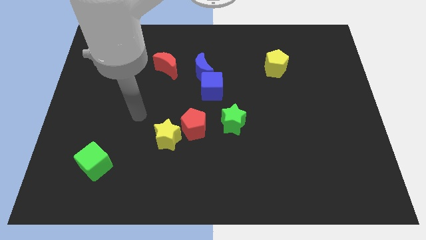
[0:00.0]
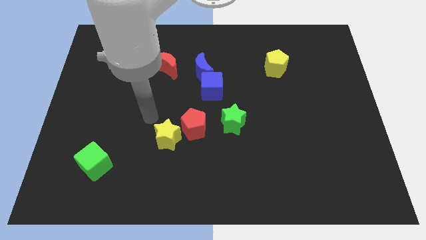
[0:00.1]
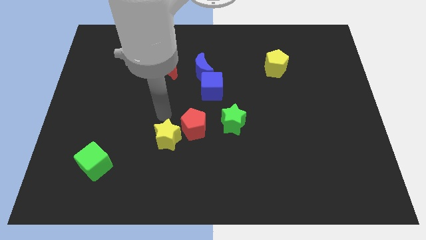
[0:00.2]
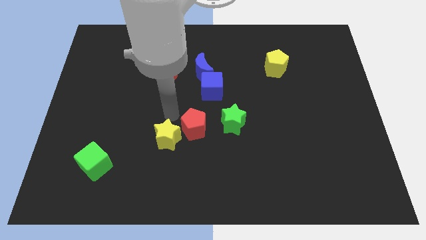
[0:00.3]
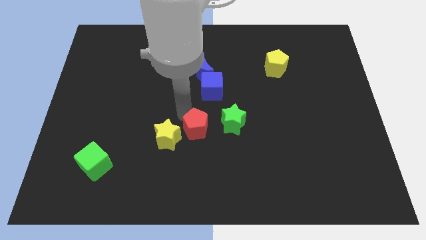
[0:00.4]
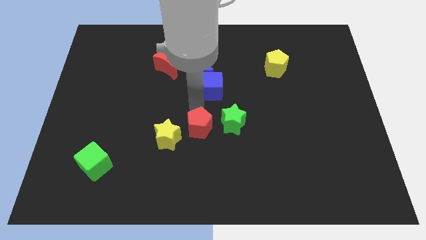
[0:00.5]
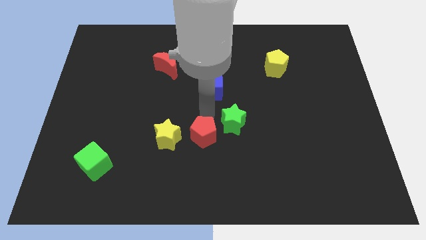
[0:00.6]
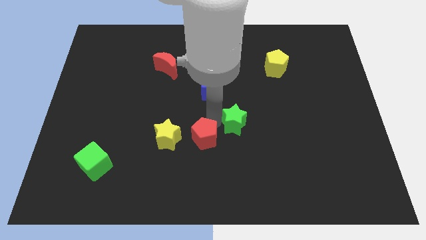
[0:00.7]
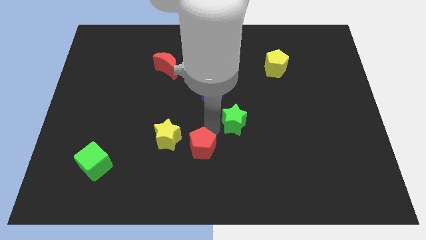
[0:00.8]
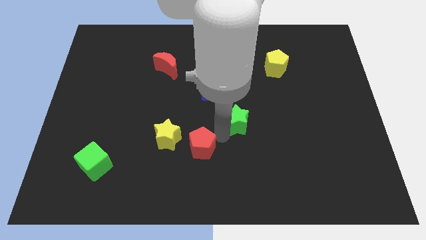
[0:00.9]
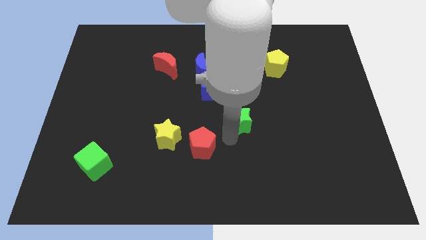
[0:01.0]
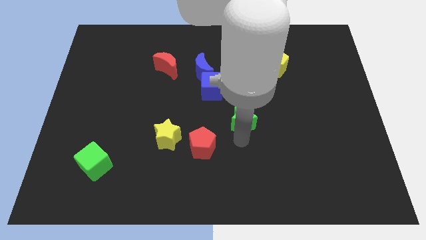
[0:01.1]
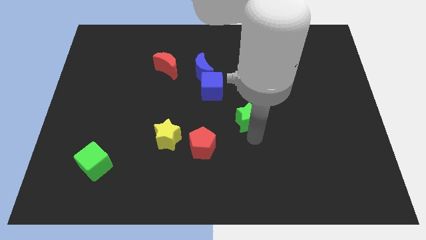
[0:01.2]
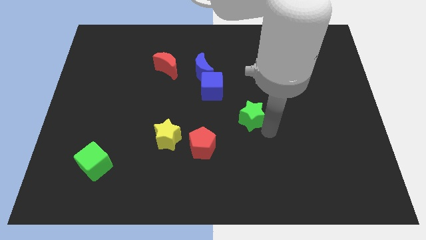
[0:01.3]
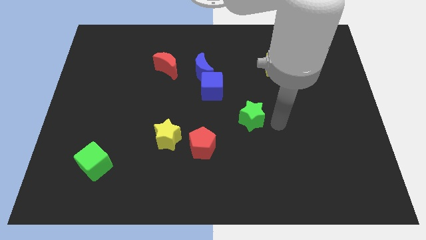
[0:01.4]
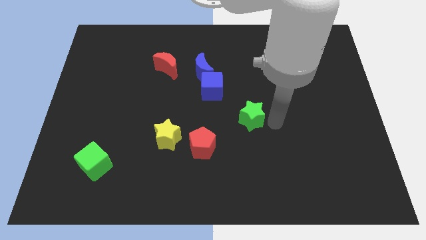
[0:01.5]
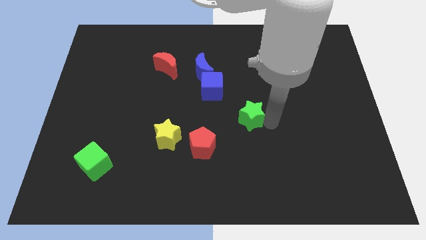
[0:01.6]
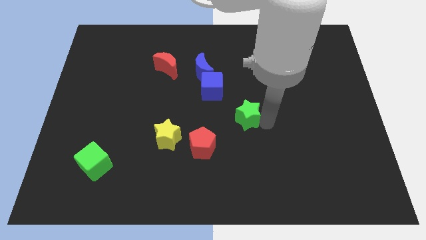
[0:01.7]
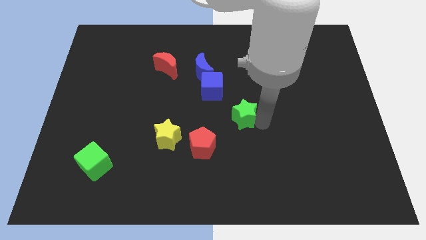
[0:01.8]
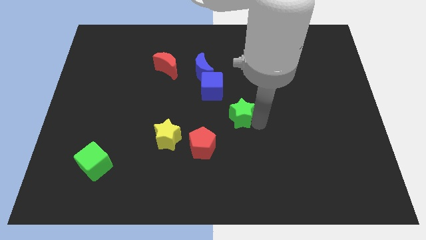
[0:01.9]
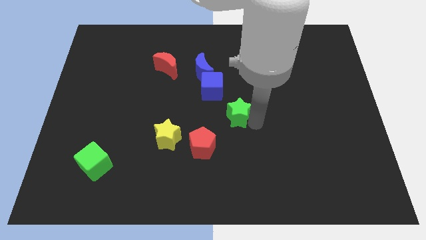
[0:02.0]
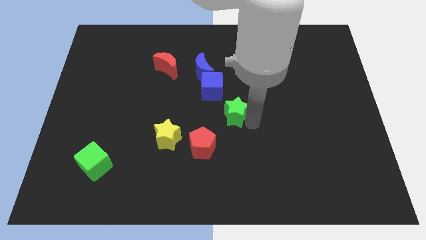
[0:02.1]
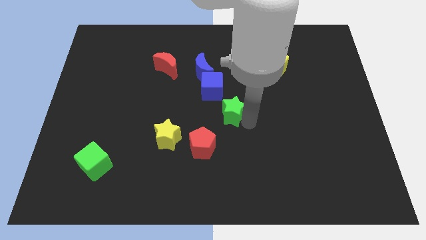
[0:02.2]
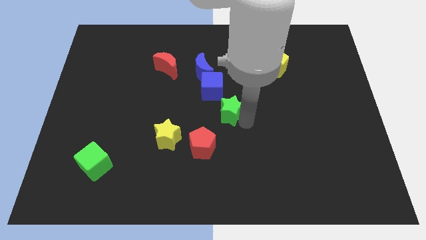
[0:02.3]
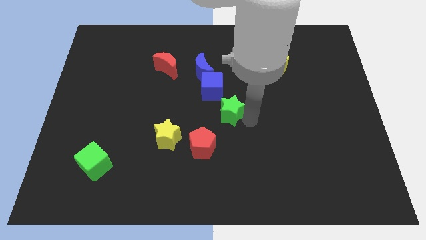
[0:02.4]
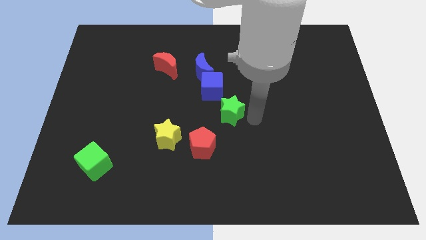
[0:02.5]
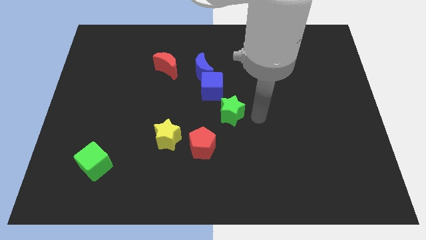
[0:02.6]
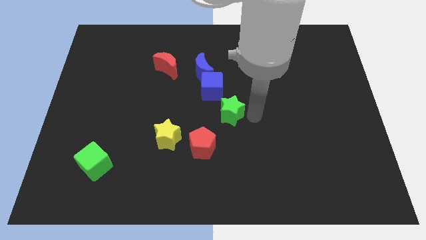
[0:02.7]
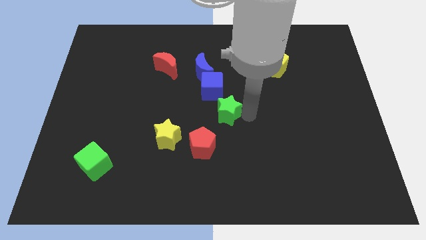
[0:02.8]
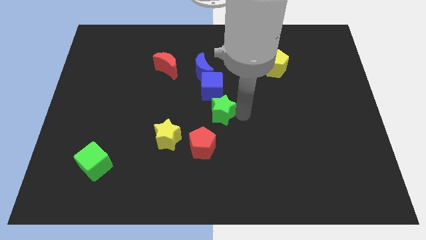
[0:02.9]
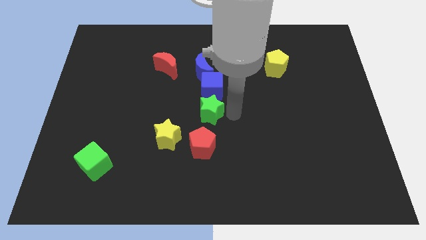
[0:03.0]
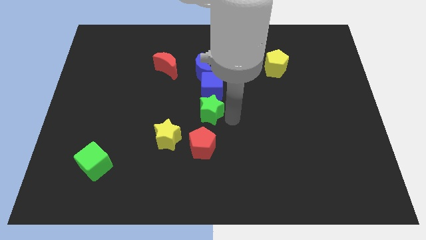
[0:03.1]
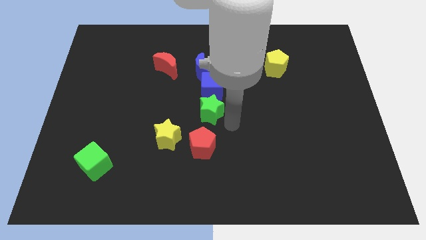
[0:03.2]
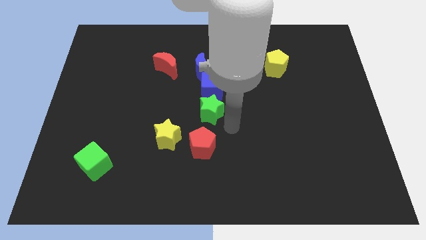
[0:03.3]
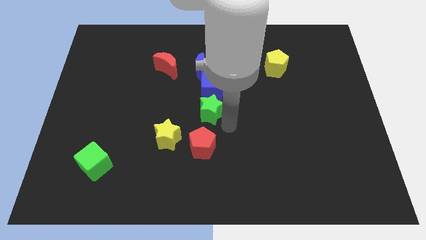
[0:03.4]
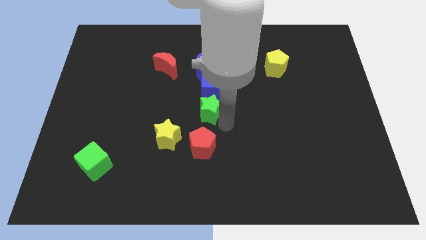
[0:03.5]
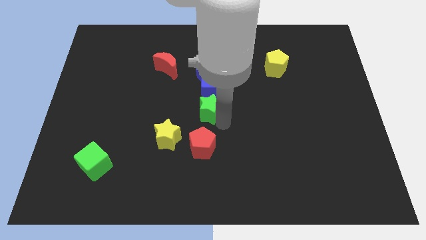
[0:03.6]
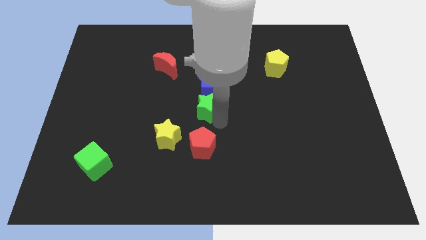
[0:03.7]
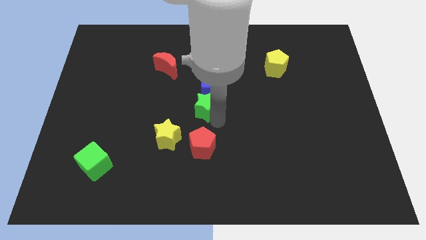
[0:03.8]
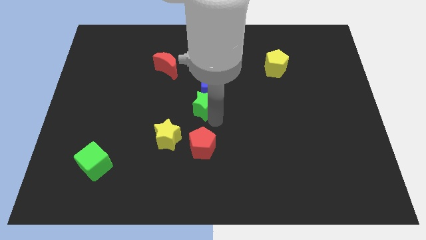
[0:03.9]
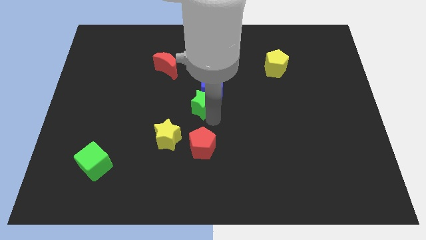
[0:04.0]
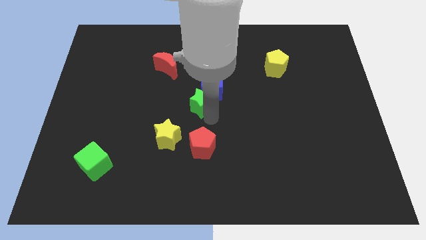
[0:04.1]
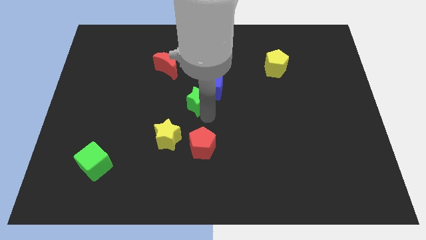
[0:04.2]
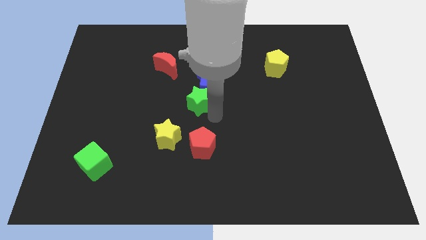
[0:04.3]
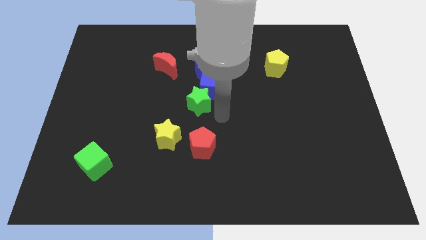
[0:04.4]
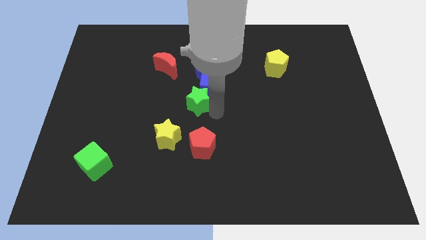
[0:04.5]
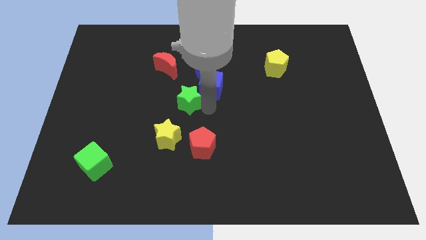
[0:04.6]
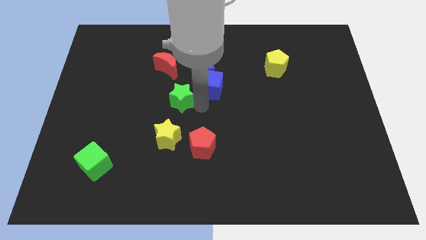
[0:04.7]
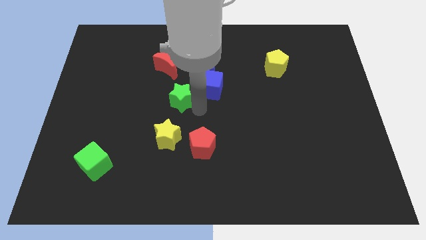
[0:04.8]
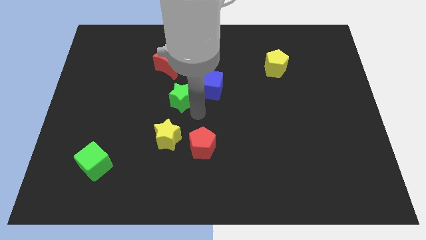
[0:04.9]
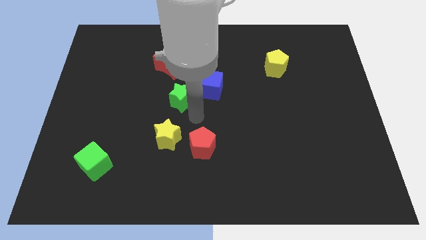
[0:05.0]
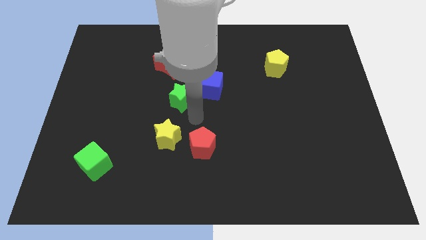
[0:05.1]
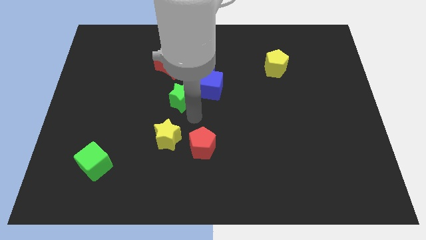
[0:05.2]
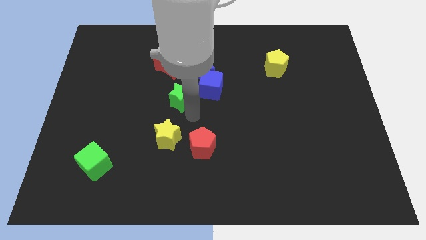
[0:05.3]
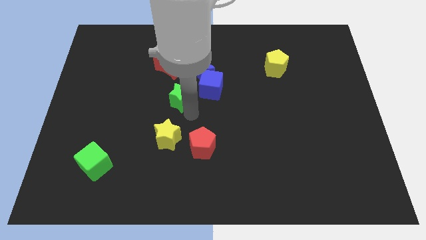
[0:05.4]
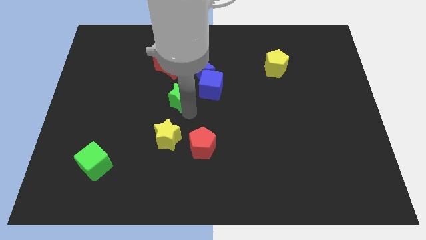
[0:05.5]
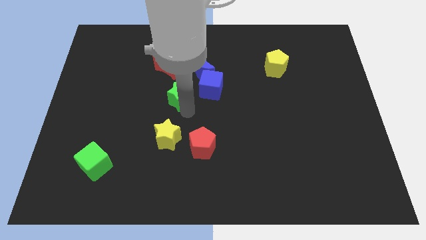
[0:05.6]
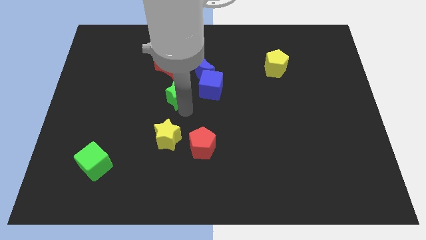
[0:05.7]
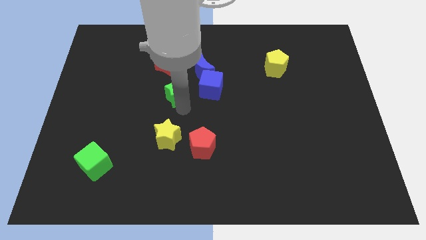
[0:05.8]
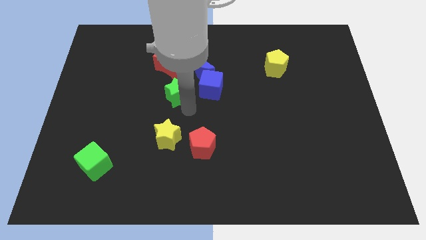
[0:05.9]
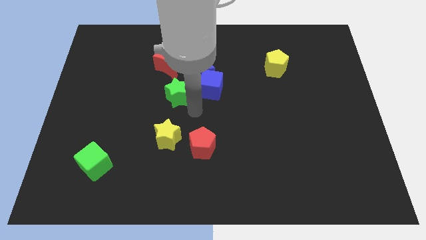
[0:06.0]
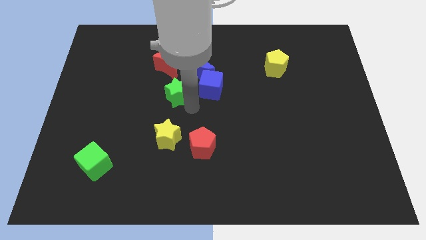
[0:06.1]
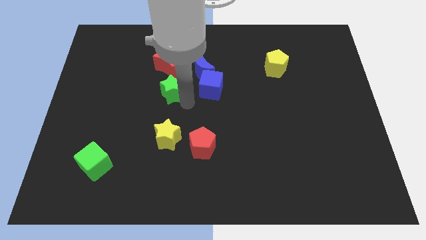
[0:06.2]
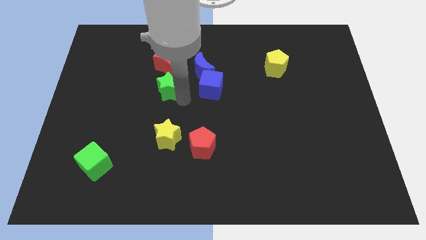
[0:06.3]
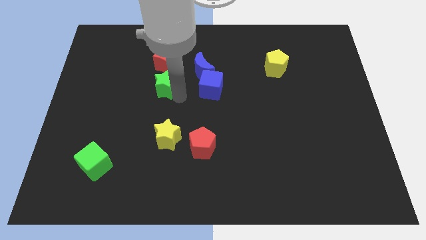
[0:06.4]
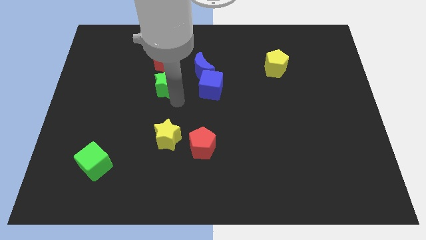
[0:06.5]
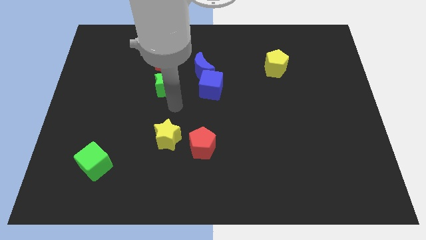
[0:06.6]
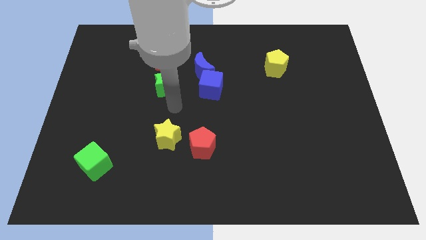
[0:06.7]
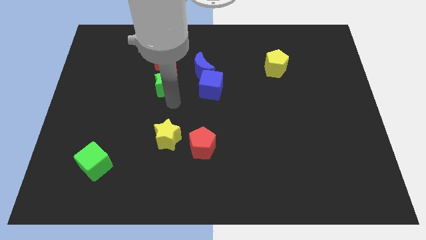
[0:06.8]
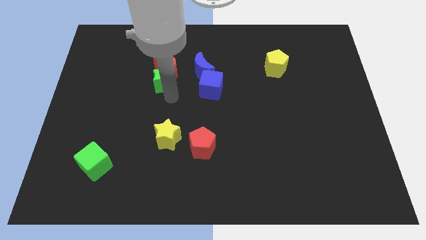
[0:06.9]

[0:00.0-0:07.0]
put the green star to the left of the blue moon
